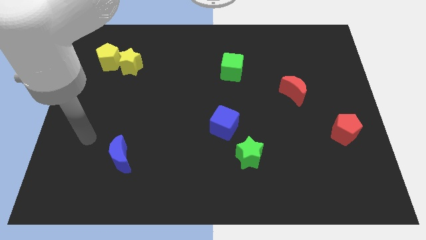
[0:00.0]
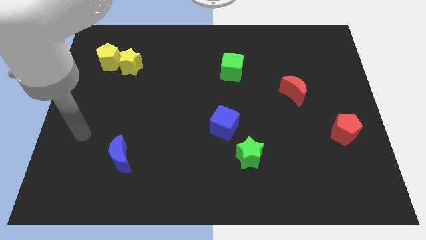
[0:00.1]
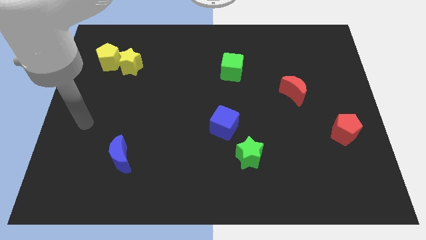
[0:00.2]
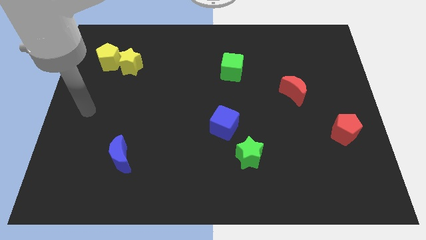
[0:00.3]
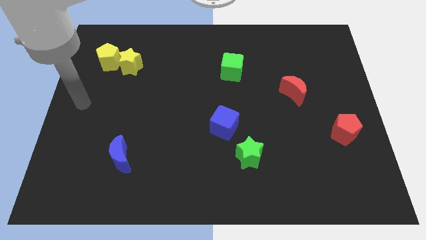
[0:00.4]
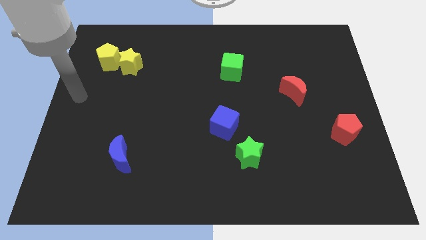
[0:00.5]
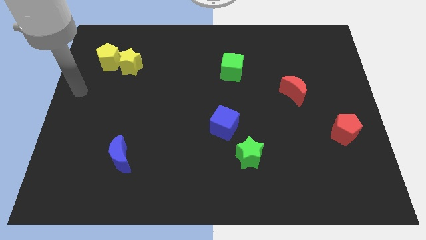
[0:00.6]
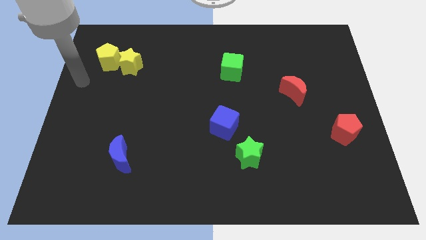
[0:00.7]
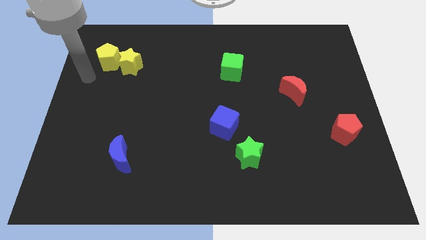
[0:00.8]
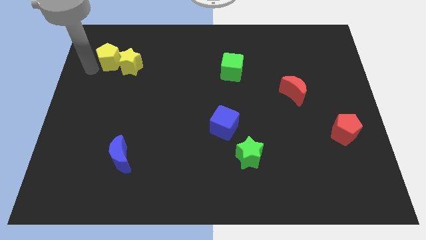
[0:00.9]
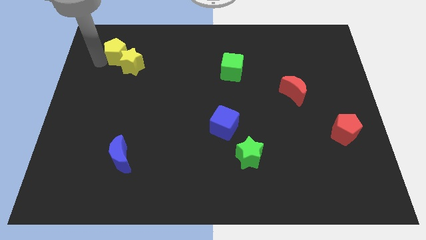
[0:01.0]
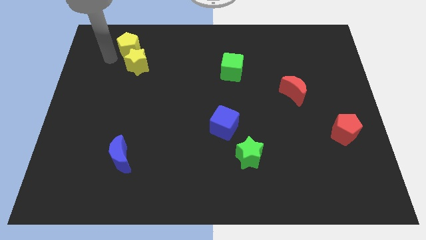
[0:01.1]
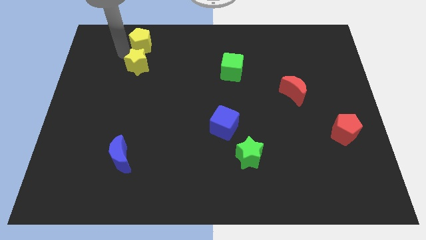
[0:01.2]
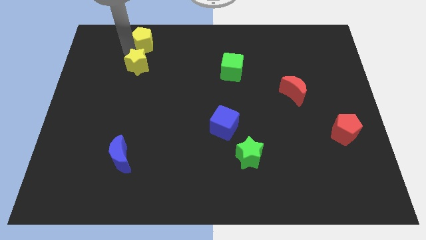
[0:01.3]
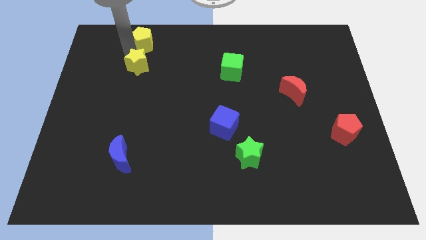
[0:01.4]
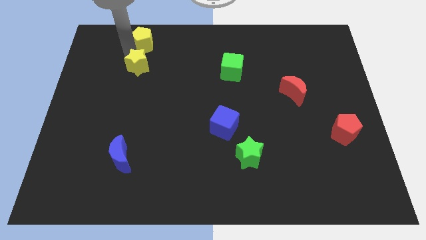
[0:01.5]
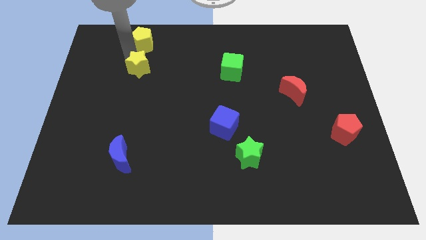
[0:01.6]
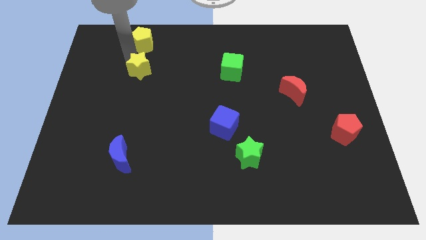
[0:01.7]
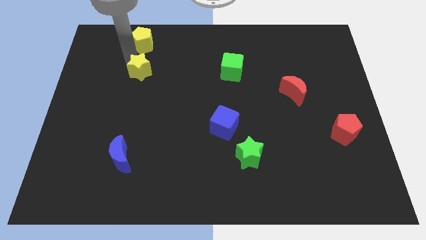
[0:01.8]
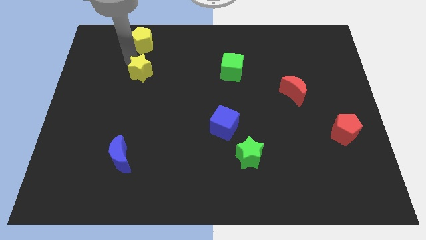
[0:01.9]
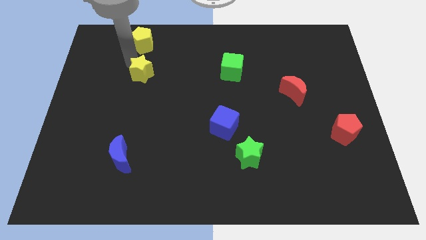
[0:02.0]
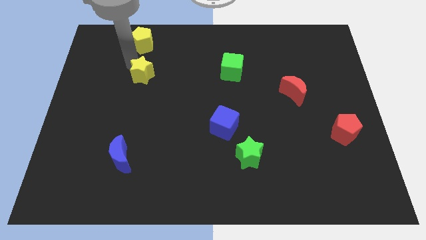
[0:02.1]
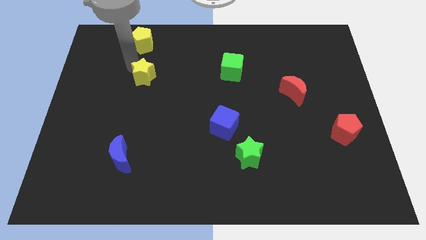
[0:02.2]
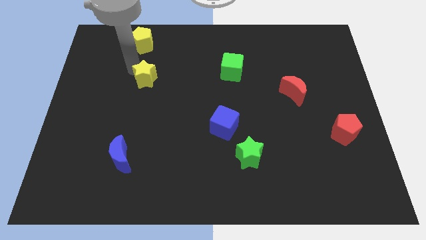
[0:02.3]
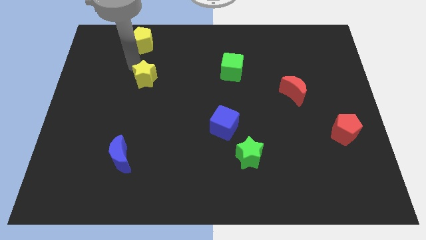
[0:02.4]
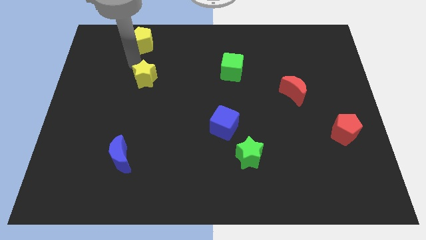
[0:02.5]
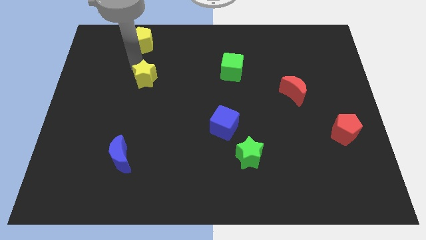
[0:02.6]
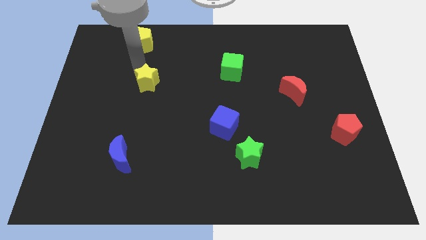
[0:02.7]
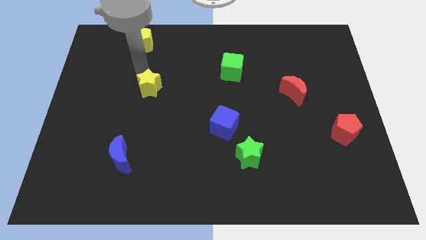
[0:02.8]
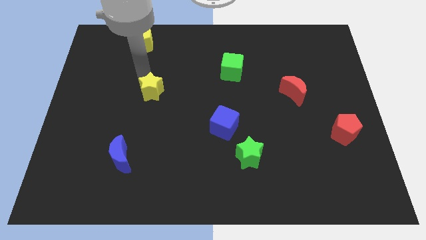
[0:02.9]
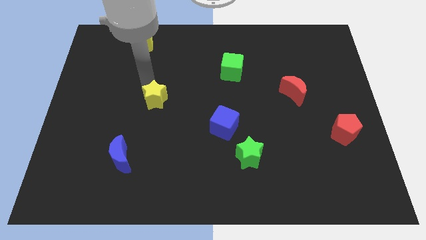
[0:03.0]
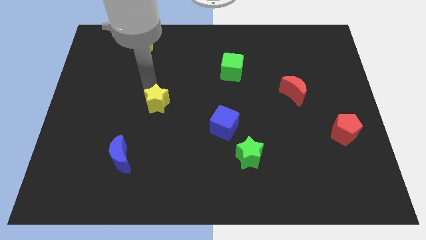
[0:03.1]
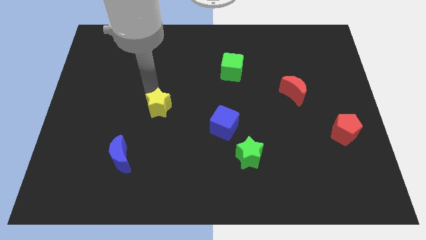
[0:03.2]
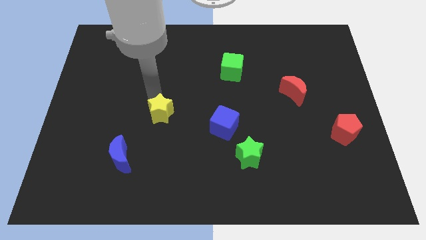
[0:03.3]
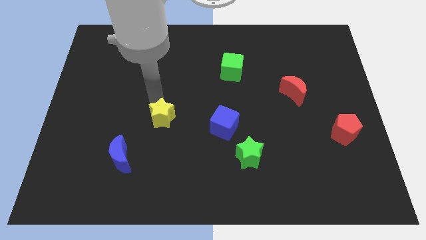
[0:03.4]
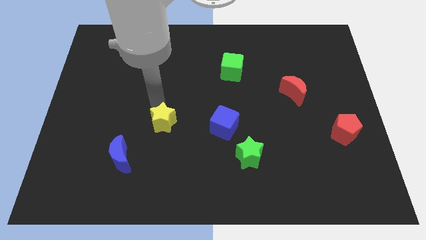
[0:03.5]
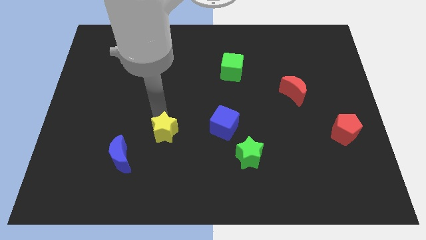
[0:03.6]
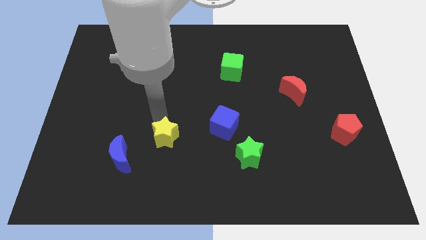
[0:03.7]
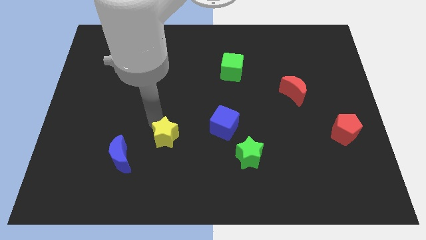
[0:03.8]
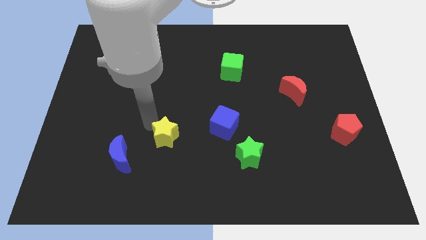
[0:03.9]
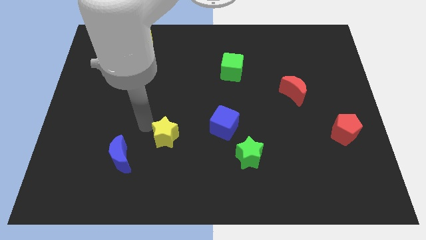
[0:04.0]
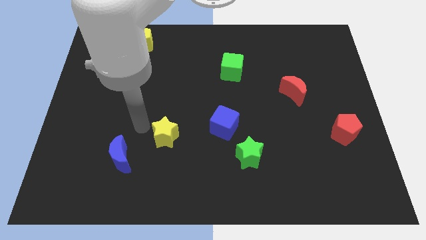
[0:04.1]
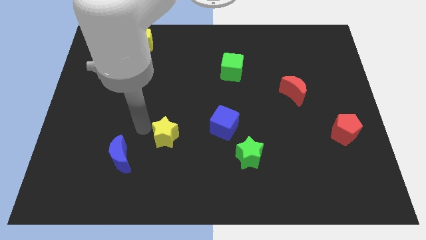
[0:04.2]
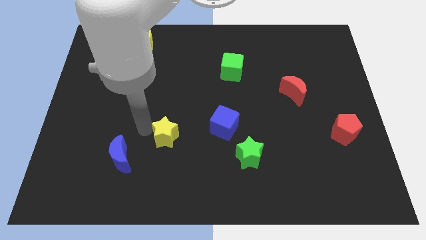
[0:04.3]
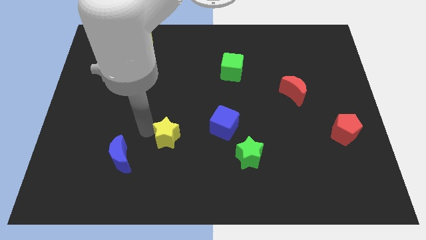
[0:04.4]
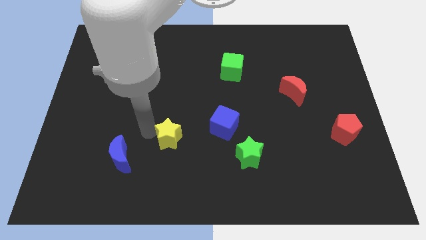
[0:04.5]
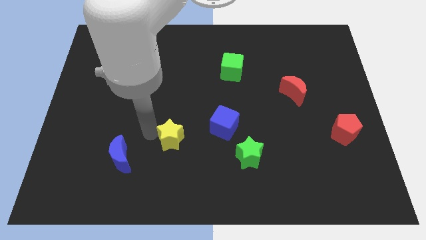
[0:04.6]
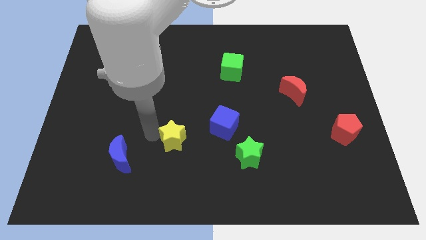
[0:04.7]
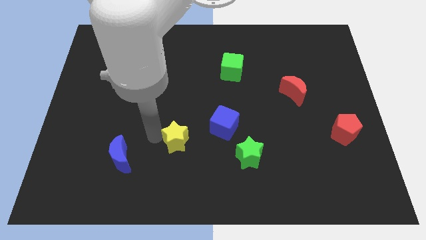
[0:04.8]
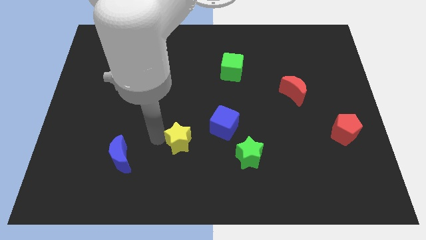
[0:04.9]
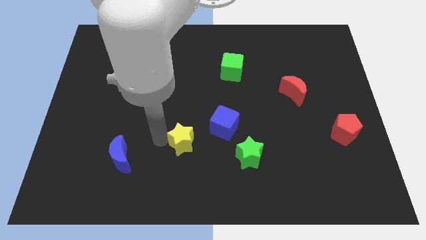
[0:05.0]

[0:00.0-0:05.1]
put the yellow star to the left side of the green star

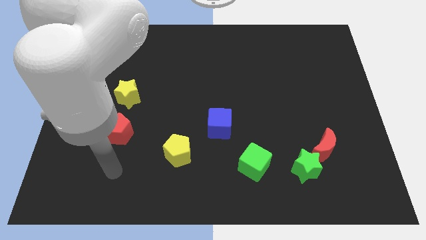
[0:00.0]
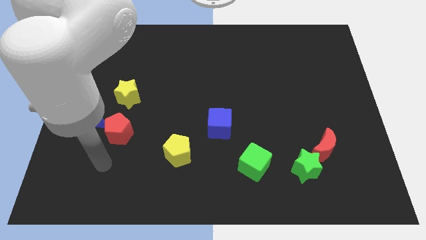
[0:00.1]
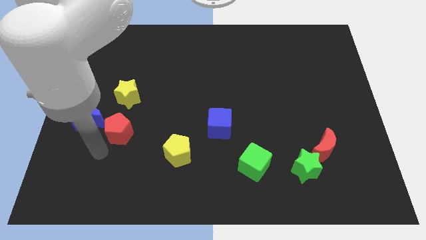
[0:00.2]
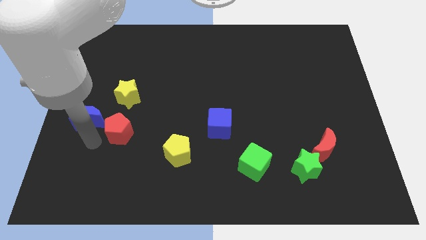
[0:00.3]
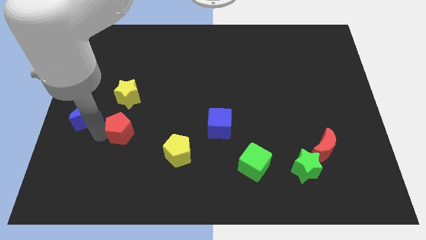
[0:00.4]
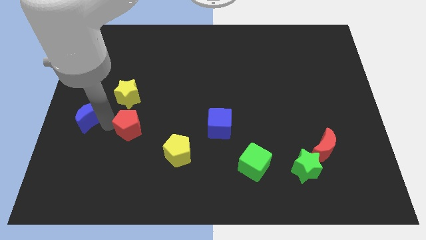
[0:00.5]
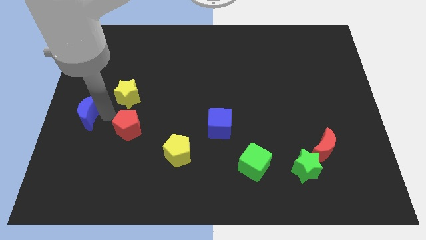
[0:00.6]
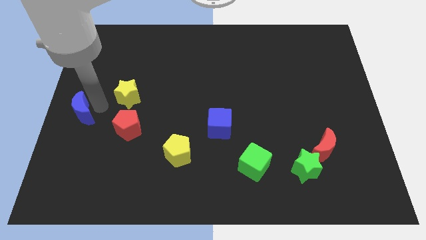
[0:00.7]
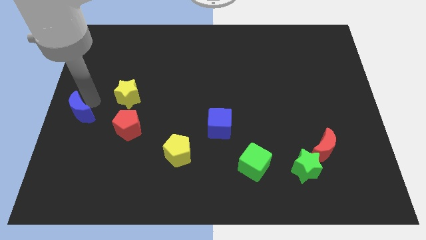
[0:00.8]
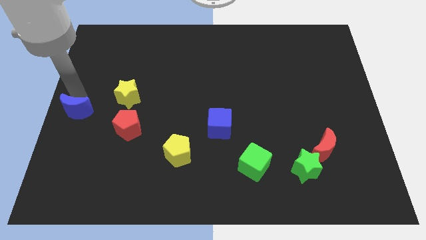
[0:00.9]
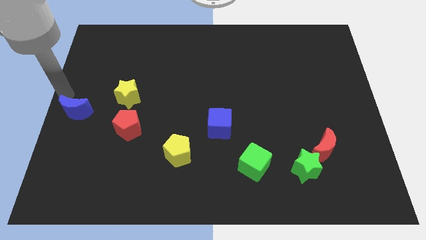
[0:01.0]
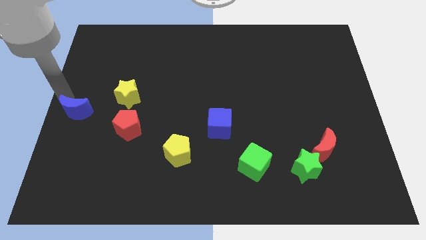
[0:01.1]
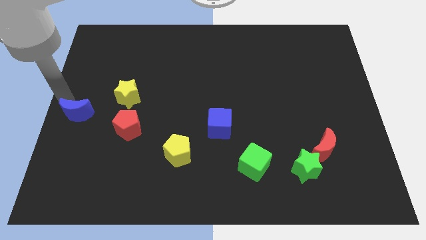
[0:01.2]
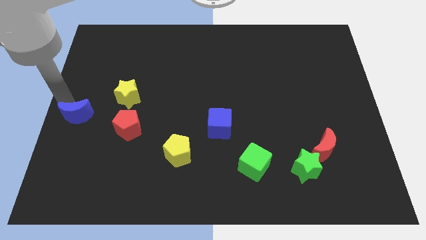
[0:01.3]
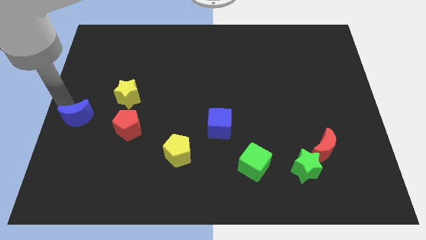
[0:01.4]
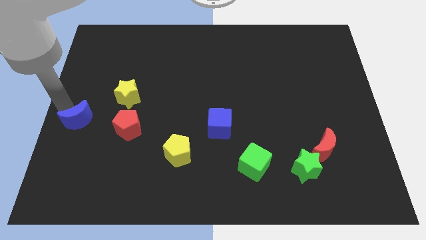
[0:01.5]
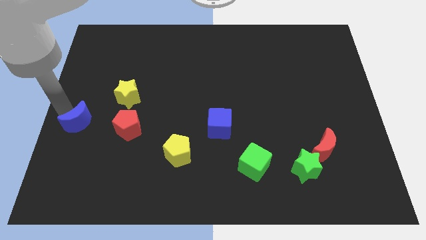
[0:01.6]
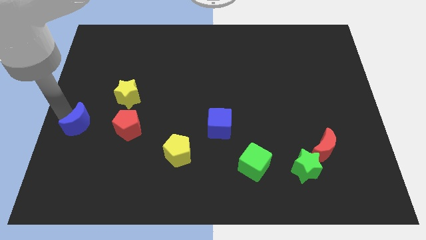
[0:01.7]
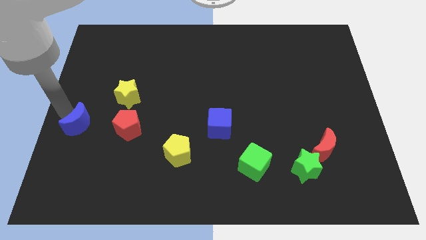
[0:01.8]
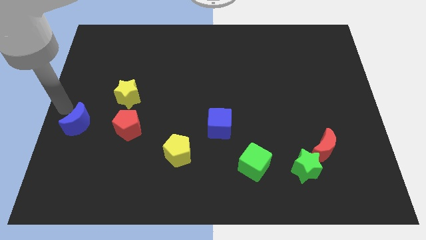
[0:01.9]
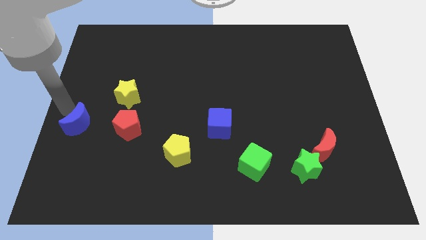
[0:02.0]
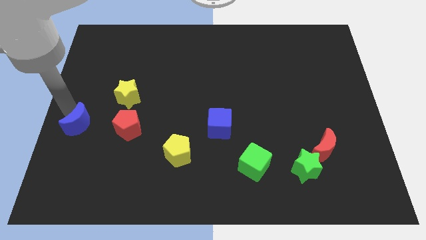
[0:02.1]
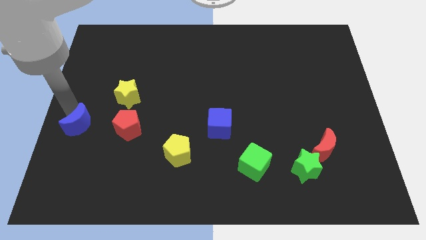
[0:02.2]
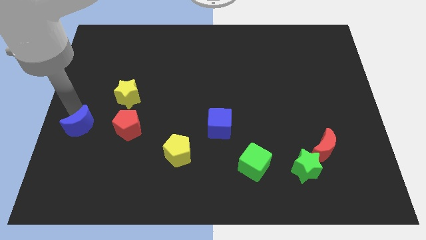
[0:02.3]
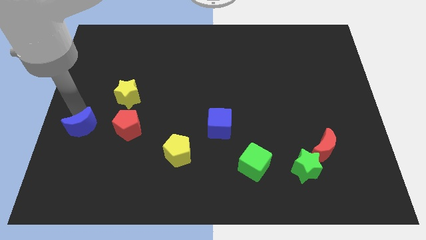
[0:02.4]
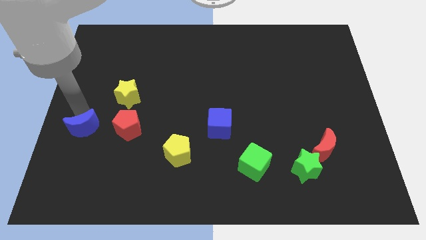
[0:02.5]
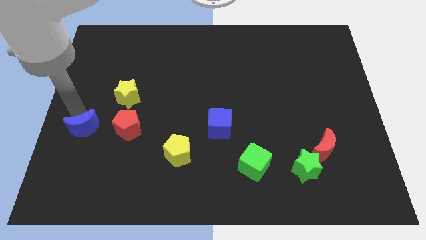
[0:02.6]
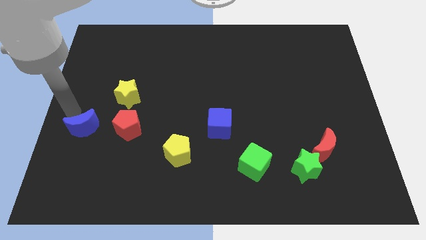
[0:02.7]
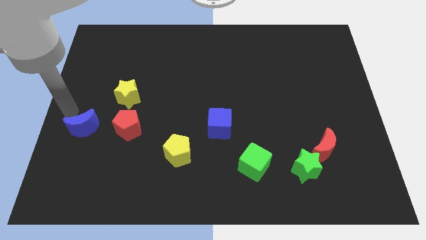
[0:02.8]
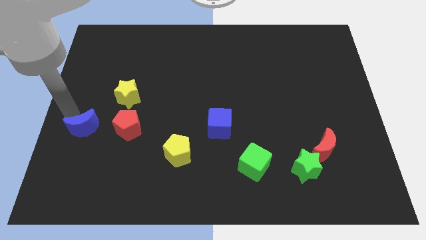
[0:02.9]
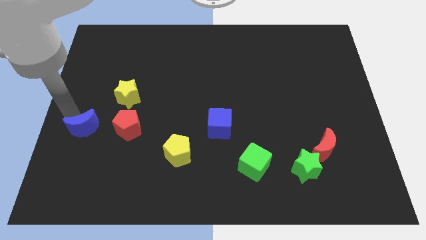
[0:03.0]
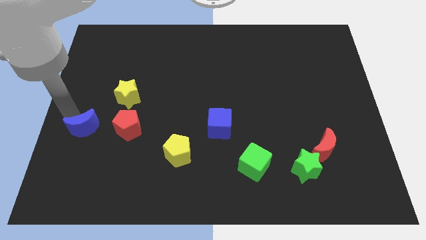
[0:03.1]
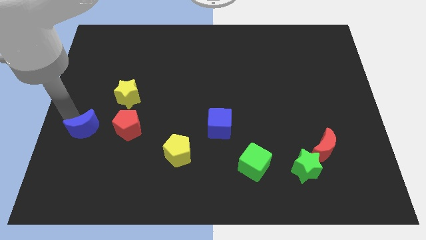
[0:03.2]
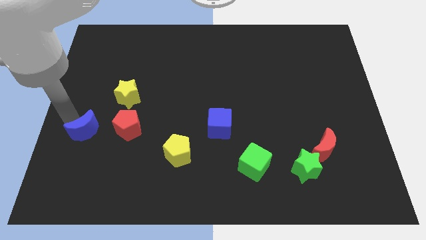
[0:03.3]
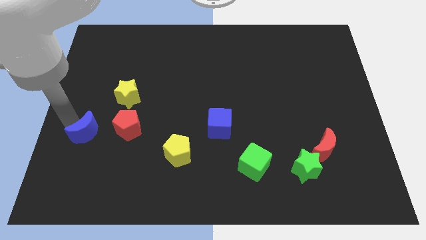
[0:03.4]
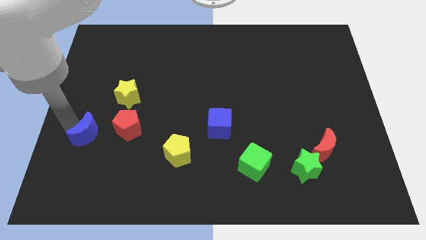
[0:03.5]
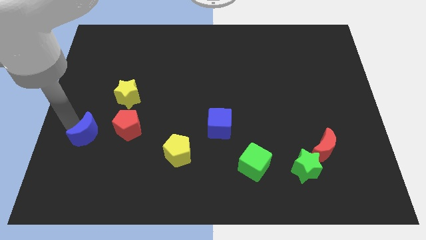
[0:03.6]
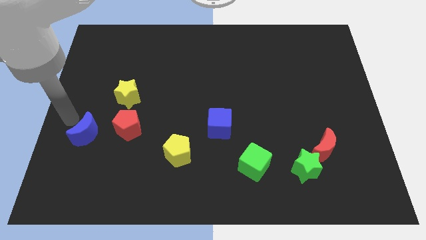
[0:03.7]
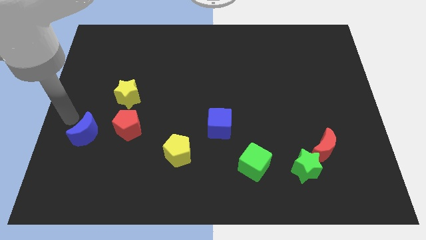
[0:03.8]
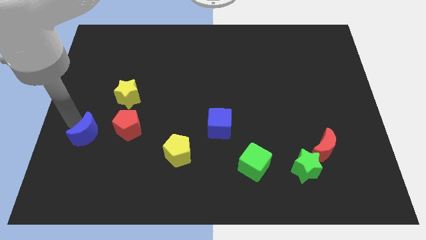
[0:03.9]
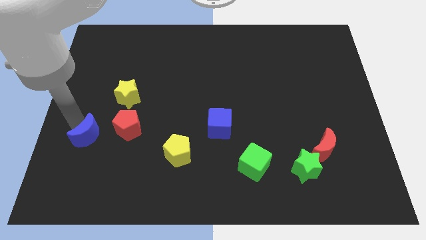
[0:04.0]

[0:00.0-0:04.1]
move the blue moon to the bottom left side of the red pentagon
